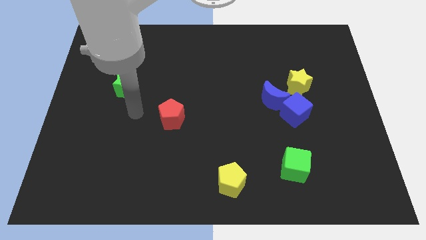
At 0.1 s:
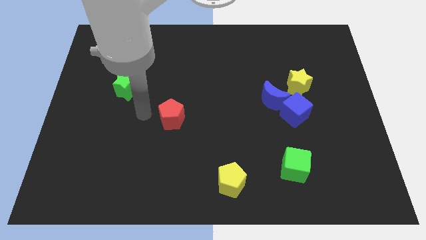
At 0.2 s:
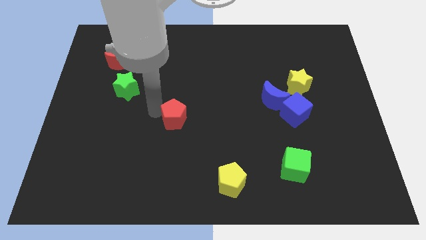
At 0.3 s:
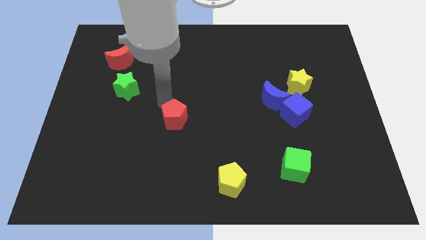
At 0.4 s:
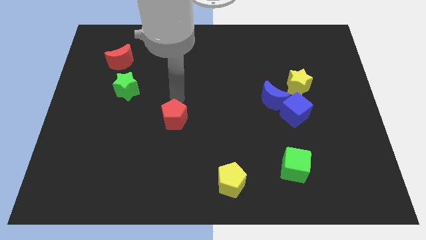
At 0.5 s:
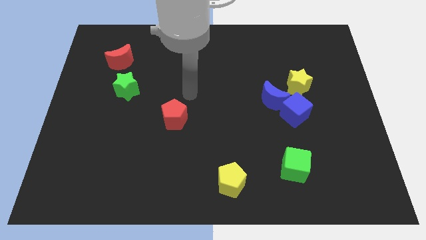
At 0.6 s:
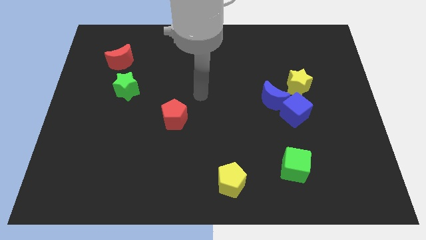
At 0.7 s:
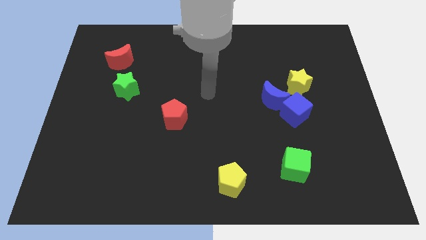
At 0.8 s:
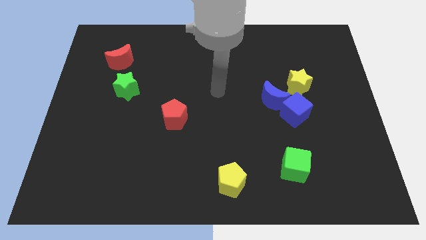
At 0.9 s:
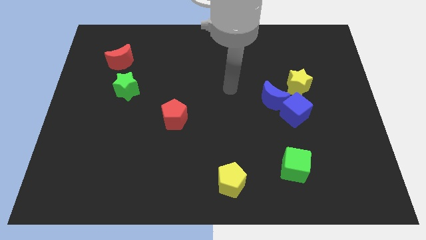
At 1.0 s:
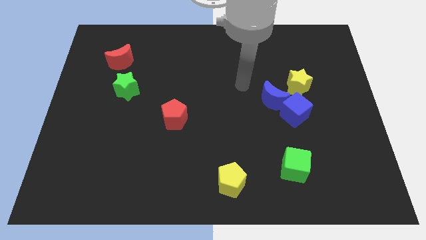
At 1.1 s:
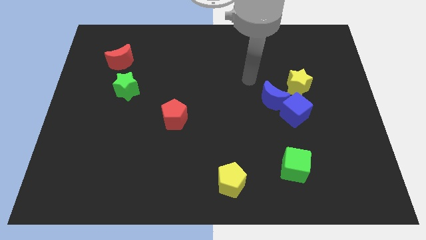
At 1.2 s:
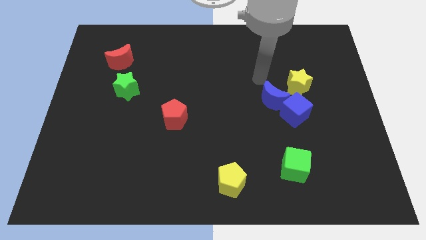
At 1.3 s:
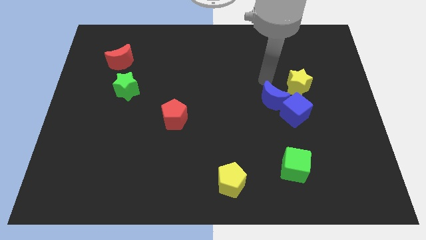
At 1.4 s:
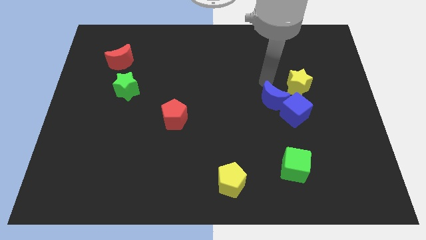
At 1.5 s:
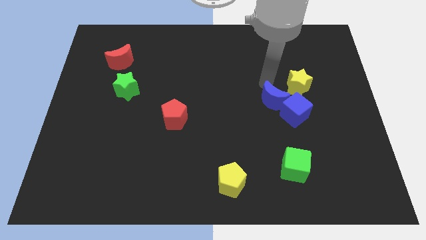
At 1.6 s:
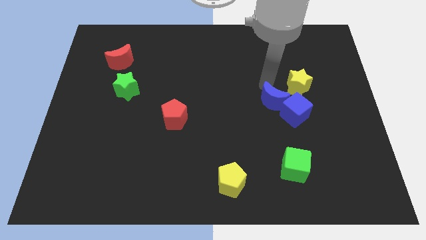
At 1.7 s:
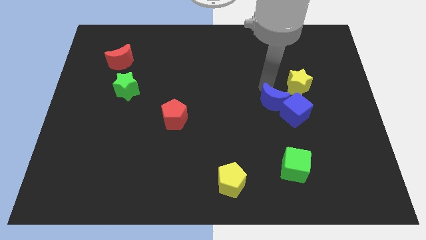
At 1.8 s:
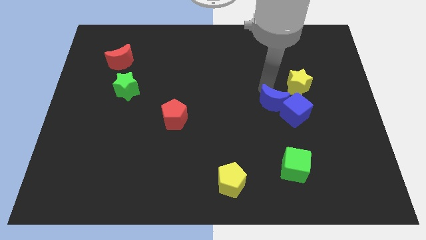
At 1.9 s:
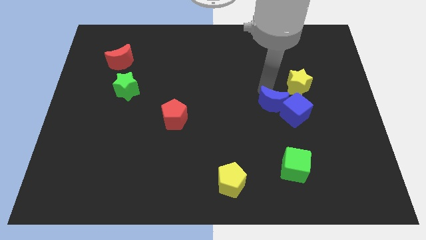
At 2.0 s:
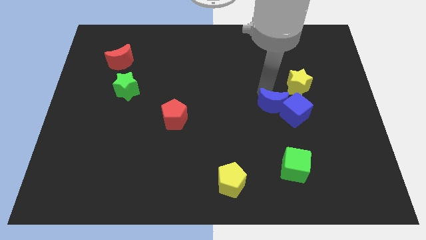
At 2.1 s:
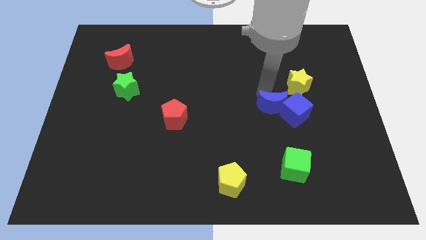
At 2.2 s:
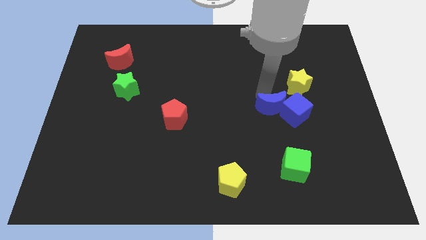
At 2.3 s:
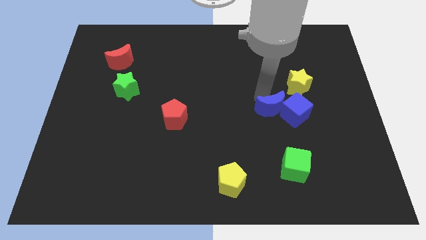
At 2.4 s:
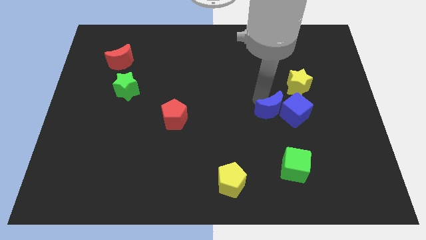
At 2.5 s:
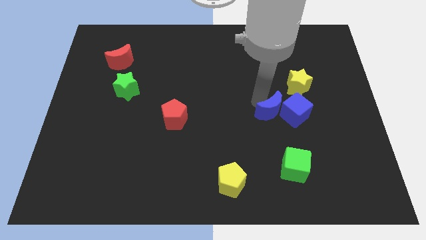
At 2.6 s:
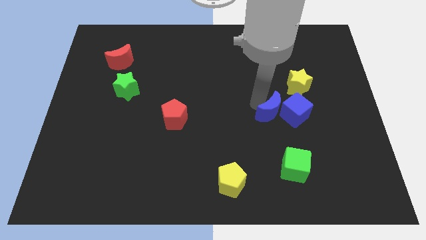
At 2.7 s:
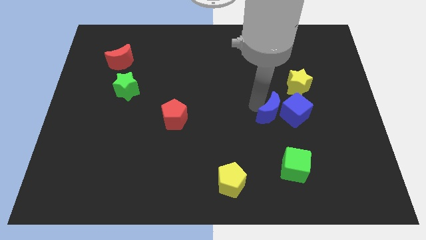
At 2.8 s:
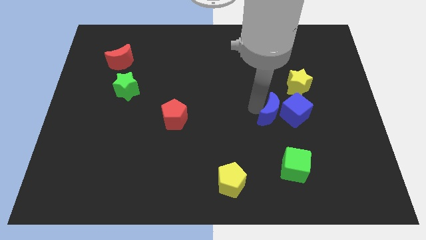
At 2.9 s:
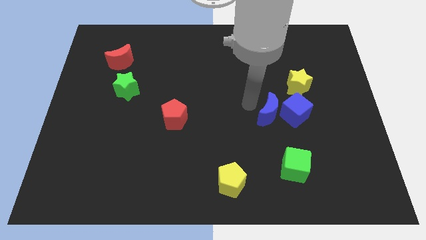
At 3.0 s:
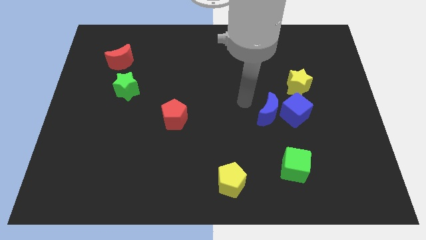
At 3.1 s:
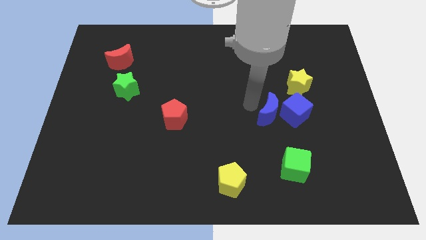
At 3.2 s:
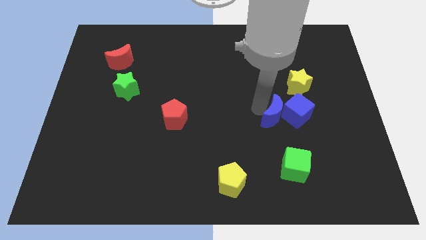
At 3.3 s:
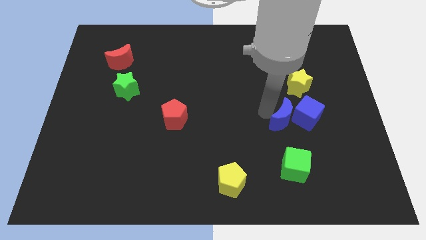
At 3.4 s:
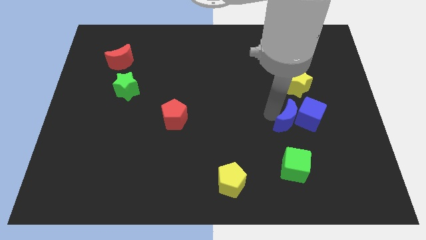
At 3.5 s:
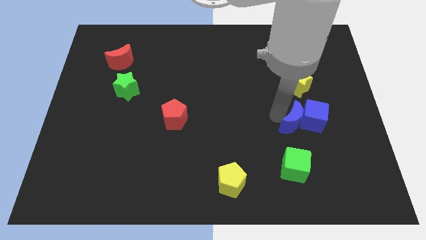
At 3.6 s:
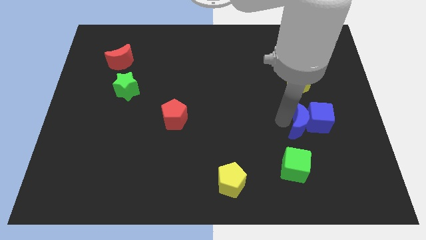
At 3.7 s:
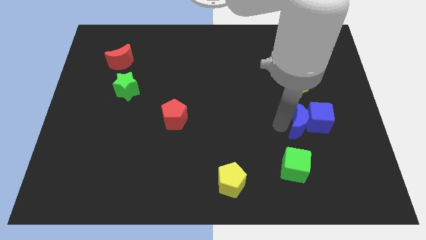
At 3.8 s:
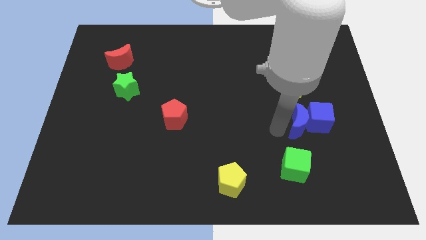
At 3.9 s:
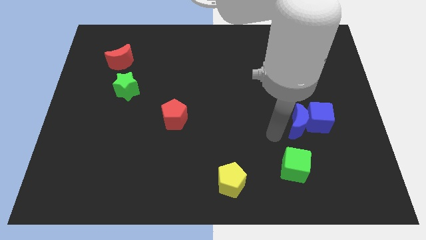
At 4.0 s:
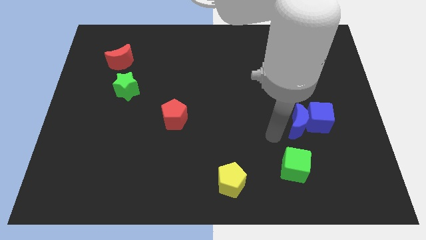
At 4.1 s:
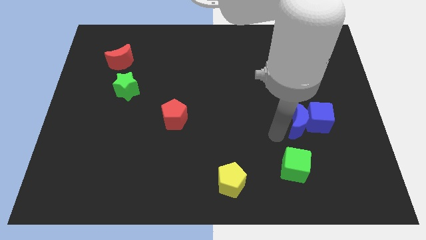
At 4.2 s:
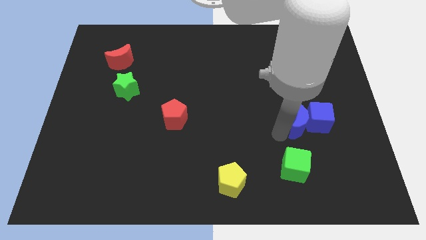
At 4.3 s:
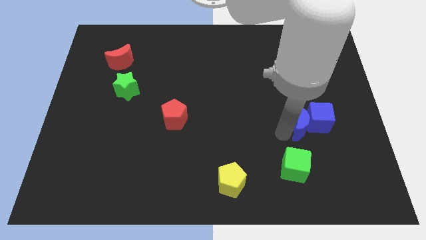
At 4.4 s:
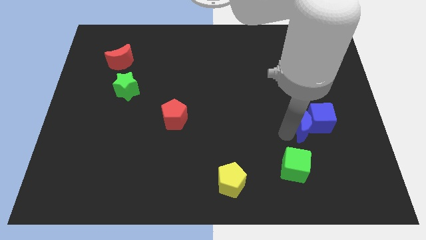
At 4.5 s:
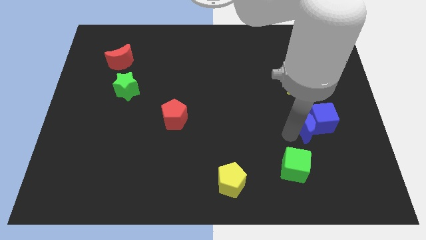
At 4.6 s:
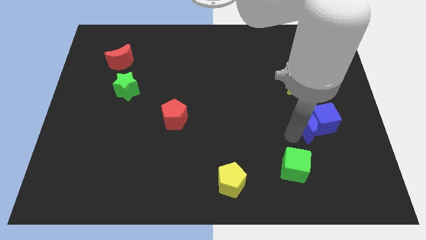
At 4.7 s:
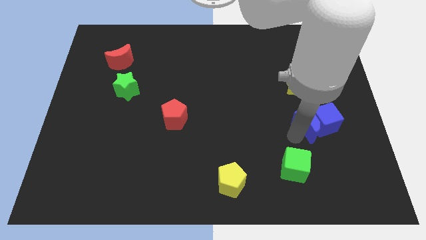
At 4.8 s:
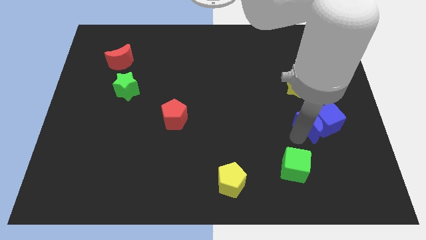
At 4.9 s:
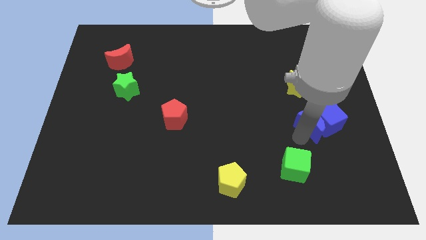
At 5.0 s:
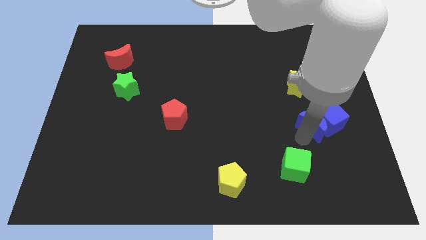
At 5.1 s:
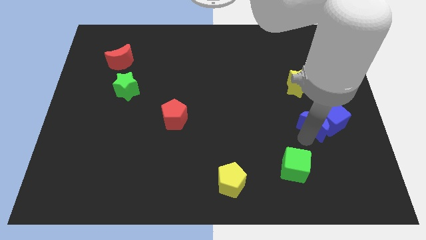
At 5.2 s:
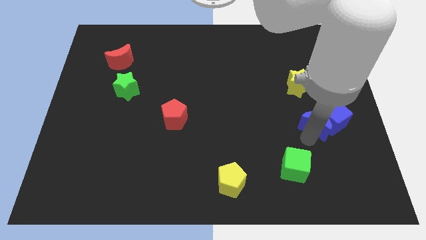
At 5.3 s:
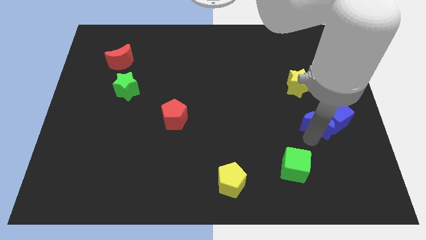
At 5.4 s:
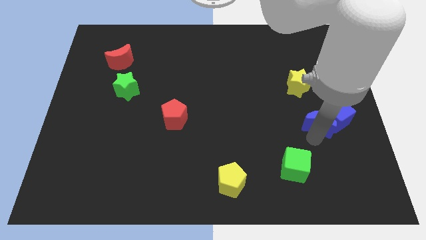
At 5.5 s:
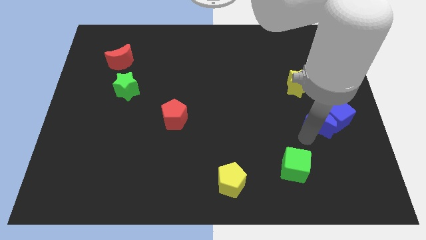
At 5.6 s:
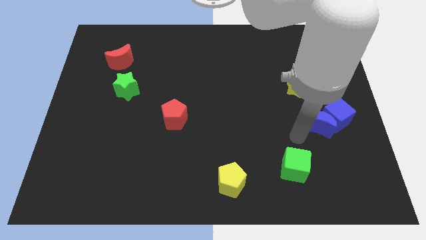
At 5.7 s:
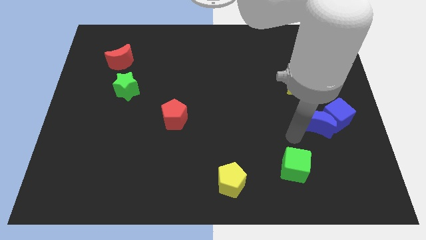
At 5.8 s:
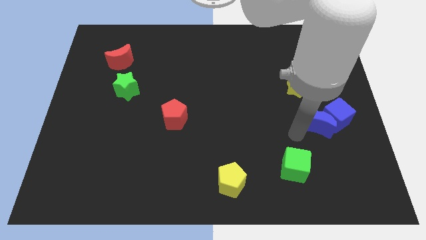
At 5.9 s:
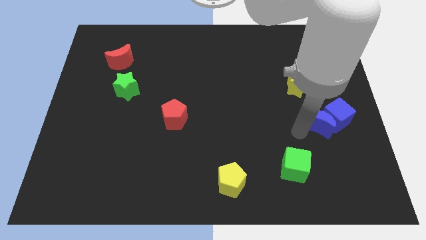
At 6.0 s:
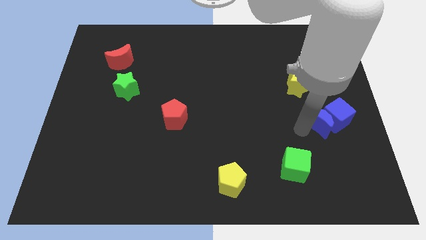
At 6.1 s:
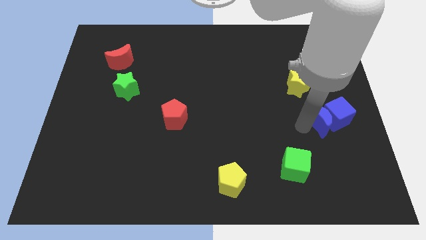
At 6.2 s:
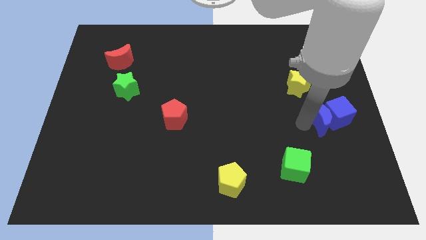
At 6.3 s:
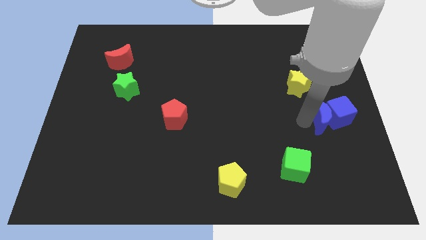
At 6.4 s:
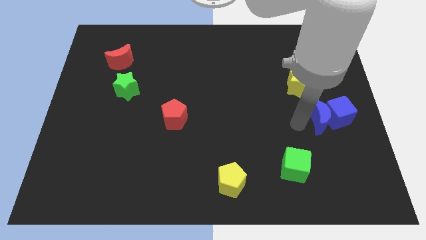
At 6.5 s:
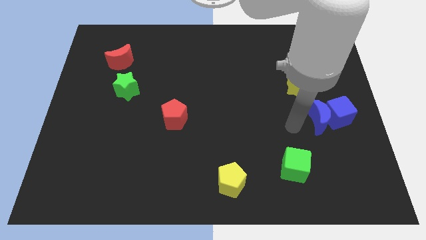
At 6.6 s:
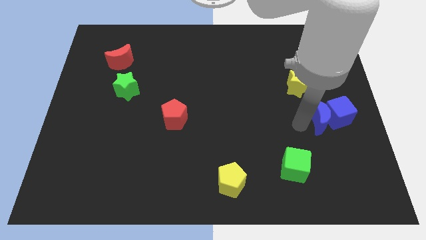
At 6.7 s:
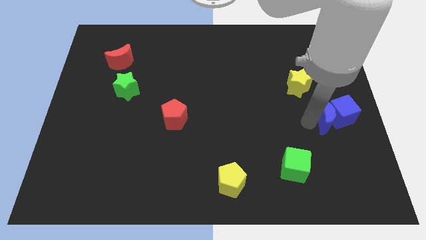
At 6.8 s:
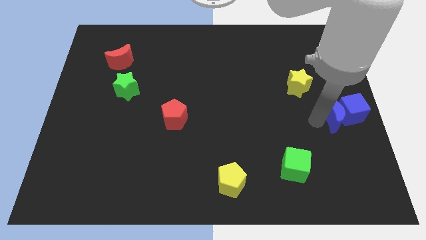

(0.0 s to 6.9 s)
push the blue moon to the right side of the board
